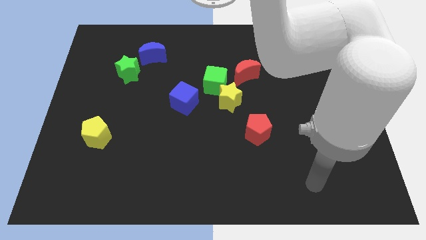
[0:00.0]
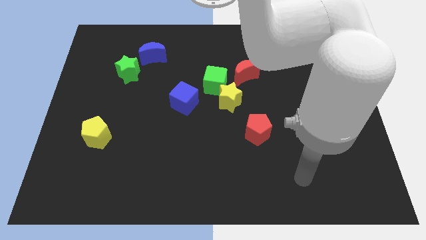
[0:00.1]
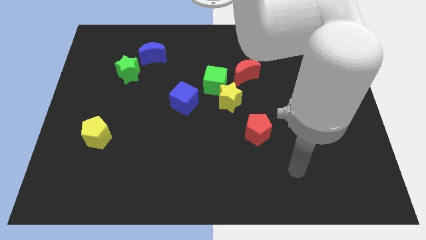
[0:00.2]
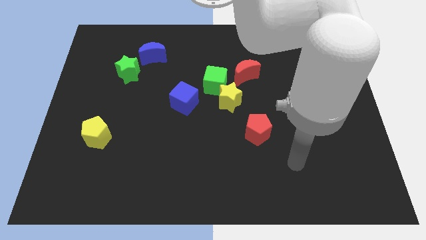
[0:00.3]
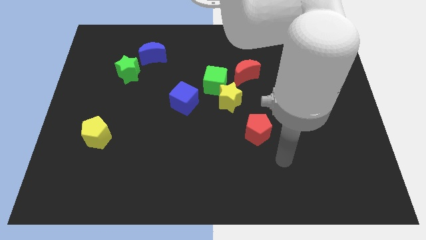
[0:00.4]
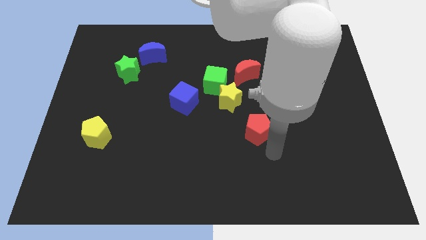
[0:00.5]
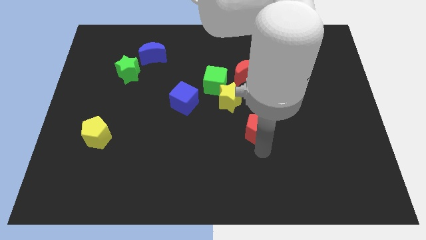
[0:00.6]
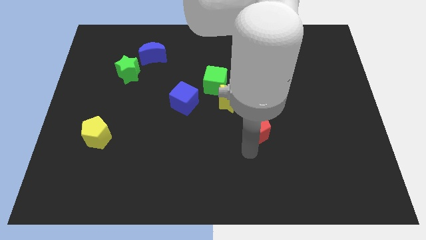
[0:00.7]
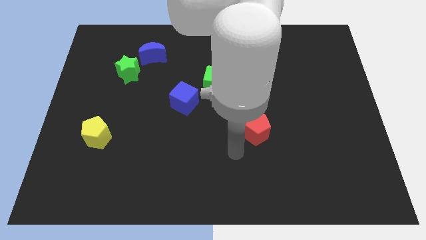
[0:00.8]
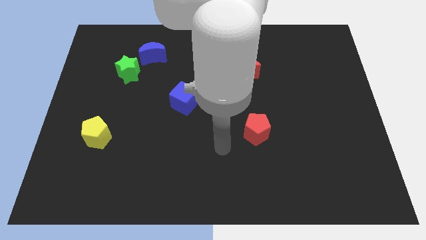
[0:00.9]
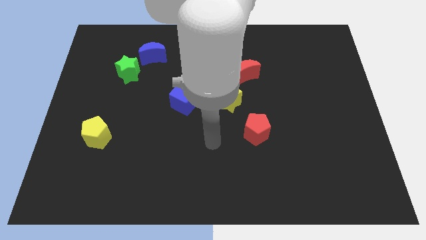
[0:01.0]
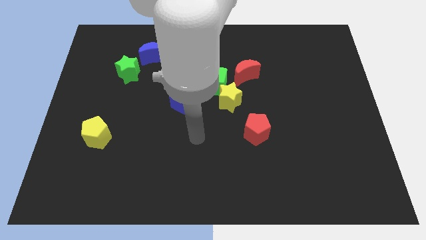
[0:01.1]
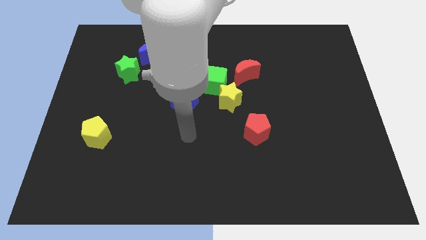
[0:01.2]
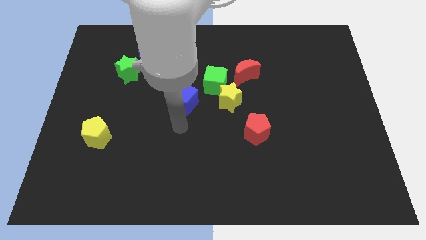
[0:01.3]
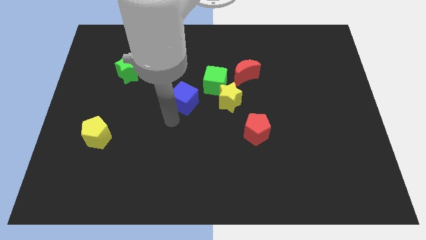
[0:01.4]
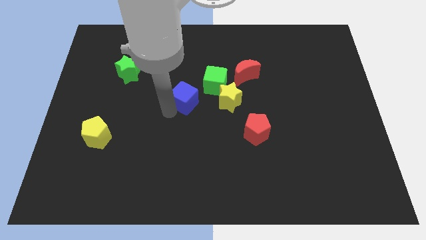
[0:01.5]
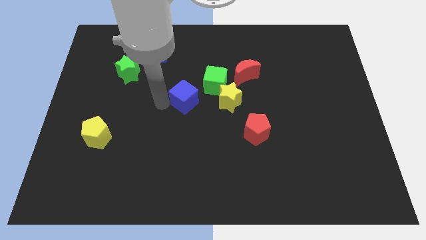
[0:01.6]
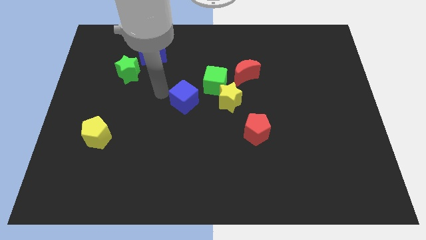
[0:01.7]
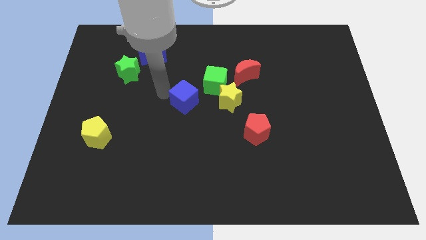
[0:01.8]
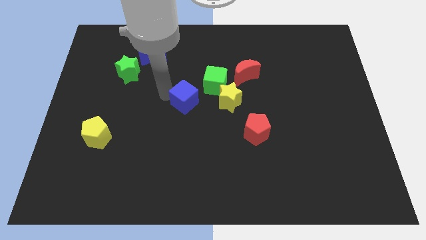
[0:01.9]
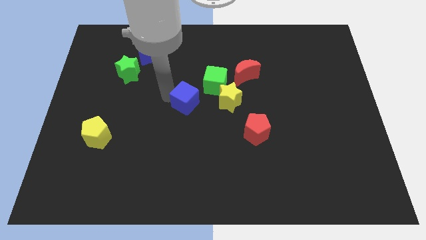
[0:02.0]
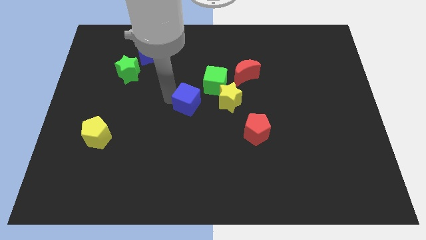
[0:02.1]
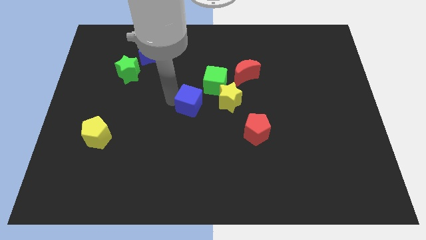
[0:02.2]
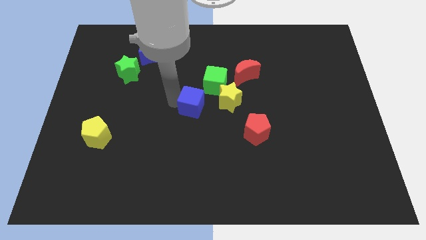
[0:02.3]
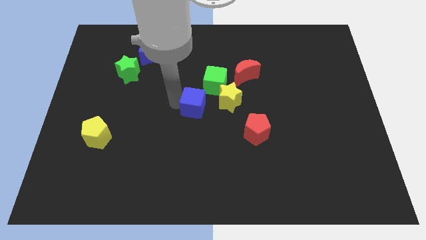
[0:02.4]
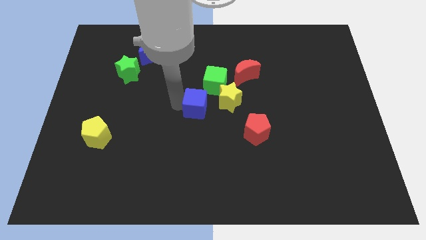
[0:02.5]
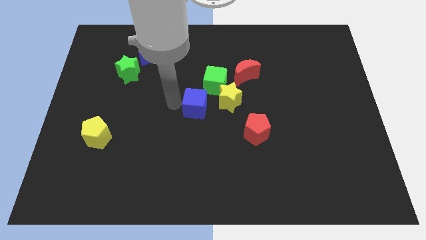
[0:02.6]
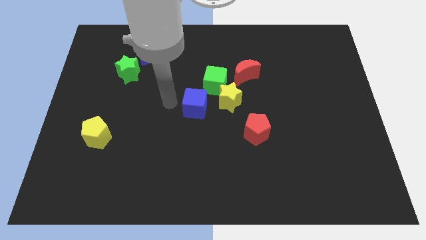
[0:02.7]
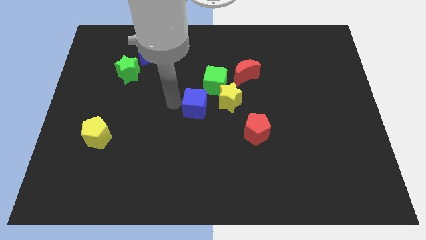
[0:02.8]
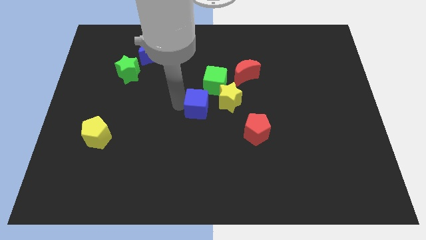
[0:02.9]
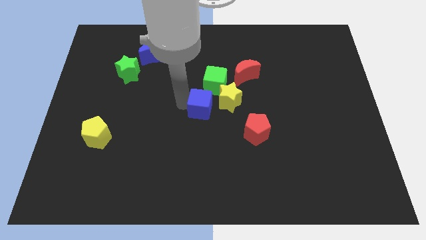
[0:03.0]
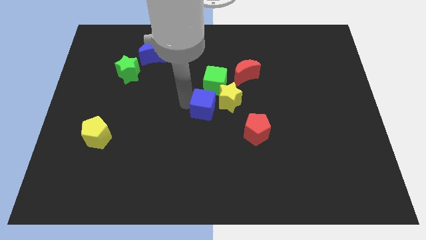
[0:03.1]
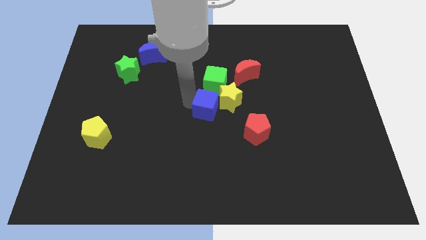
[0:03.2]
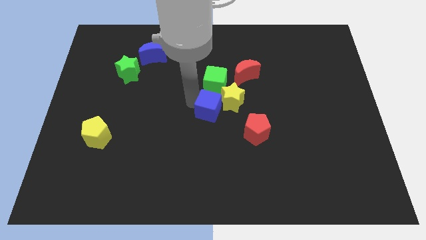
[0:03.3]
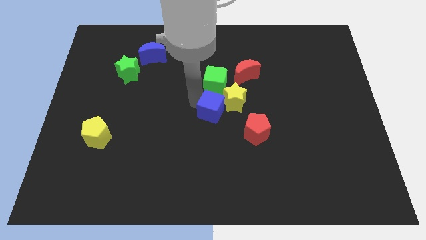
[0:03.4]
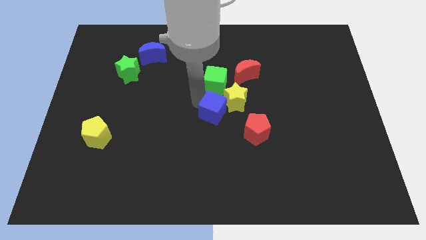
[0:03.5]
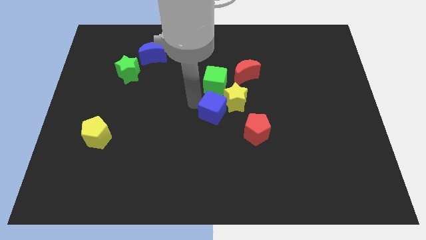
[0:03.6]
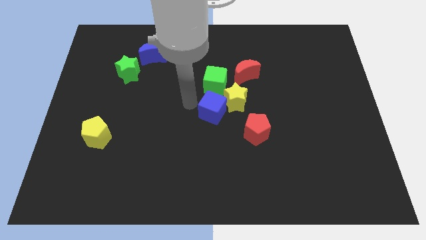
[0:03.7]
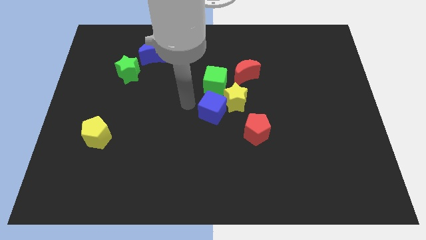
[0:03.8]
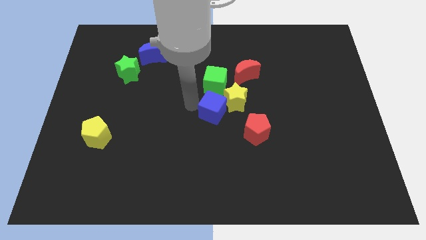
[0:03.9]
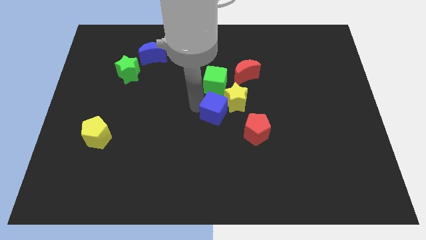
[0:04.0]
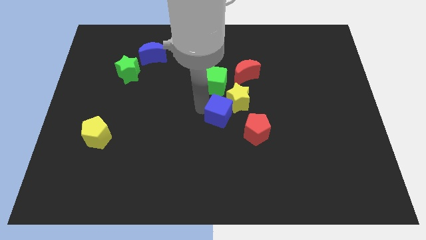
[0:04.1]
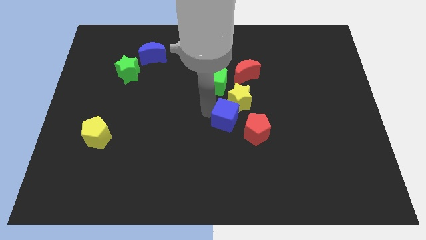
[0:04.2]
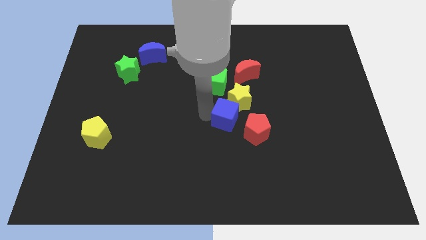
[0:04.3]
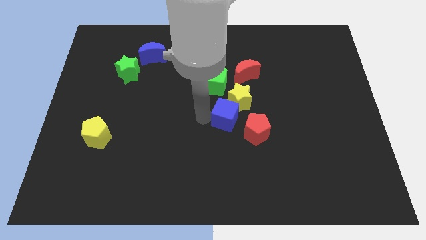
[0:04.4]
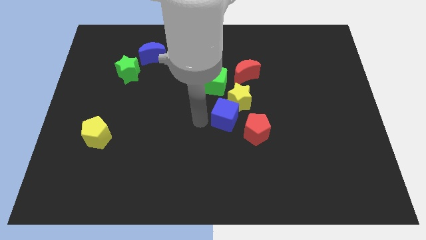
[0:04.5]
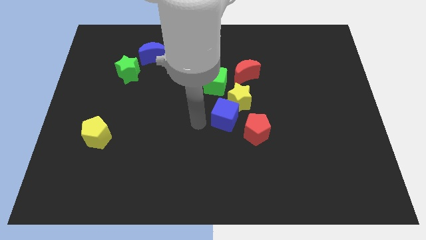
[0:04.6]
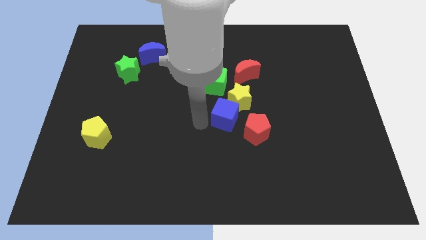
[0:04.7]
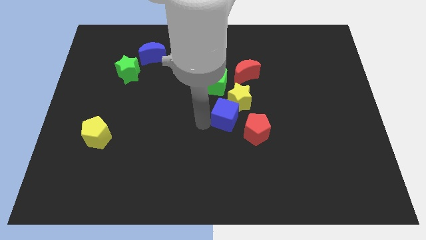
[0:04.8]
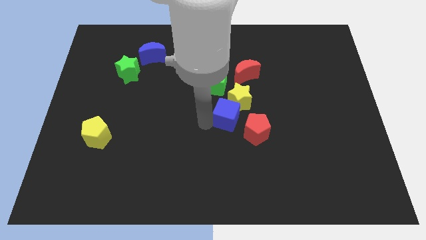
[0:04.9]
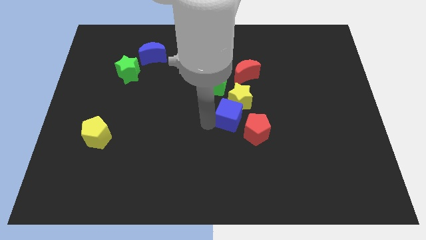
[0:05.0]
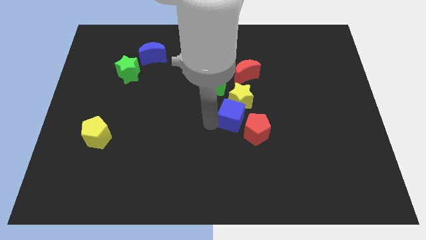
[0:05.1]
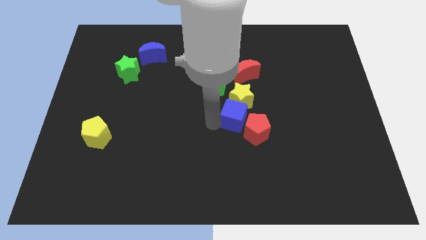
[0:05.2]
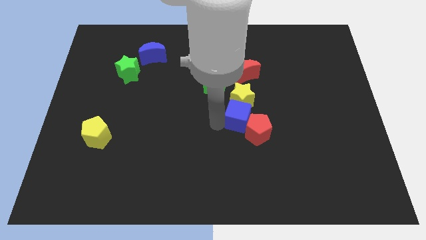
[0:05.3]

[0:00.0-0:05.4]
slide the blue cube to the top side of the red pentagon

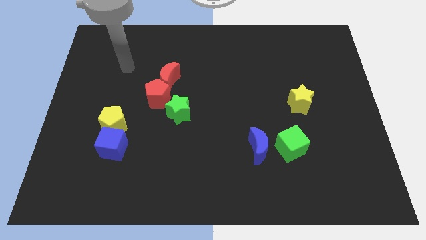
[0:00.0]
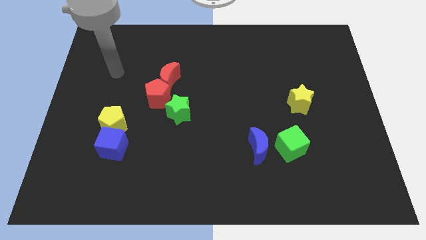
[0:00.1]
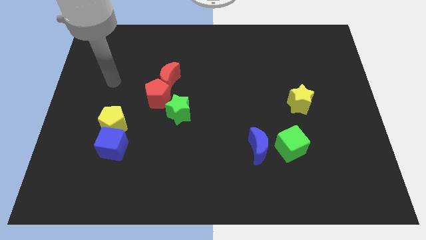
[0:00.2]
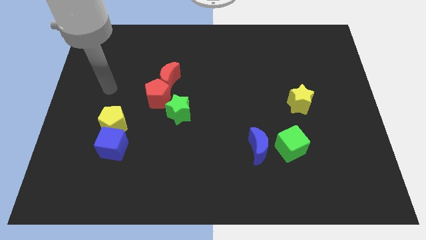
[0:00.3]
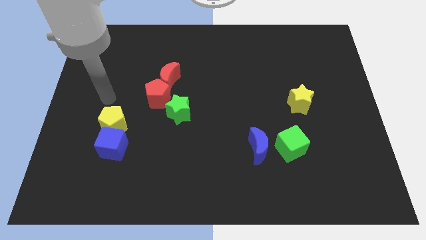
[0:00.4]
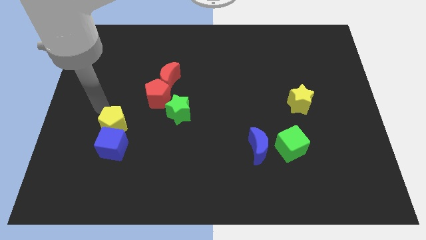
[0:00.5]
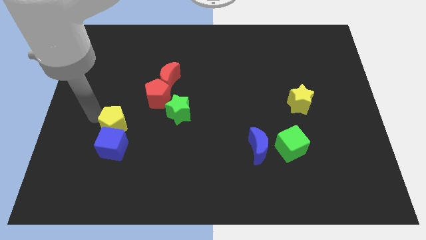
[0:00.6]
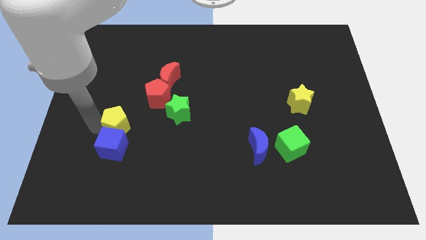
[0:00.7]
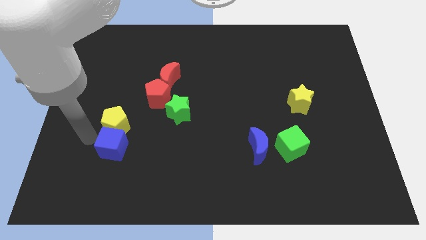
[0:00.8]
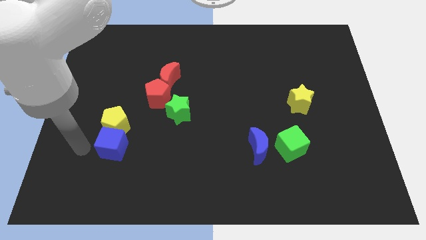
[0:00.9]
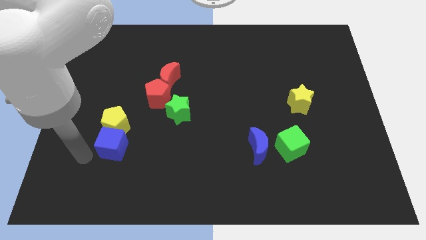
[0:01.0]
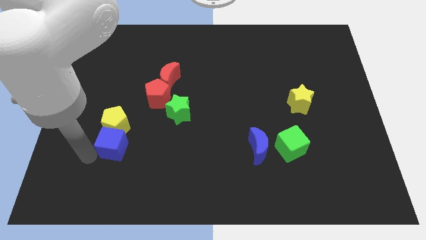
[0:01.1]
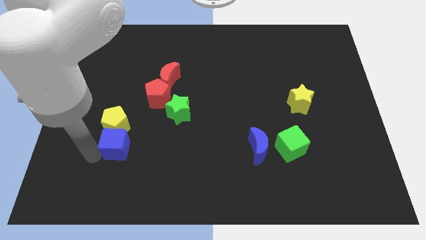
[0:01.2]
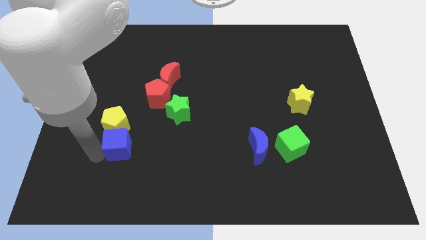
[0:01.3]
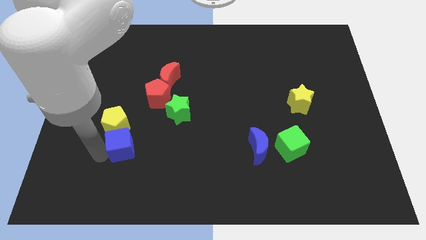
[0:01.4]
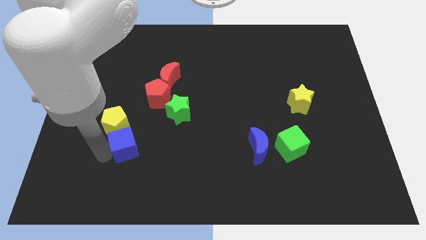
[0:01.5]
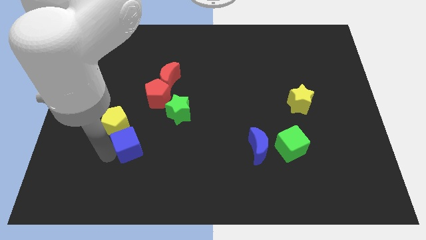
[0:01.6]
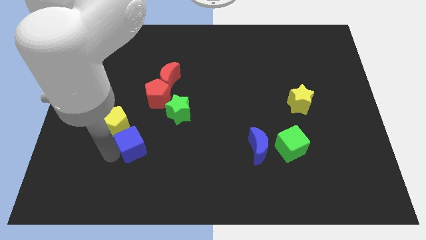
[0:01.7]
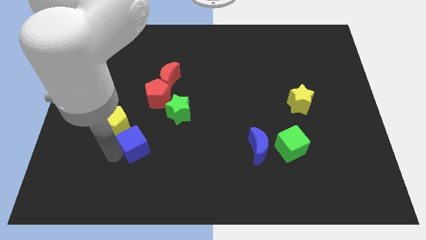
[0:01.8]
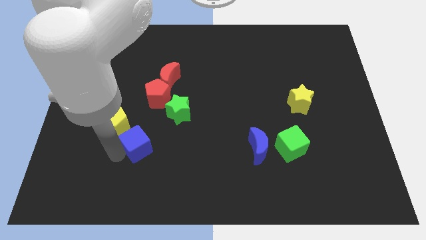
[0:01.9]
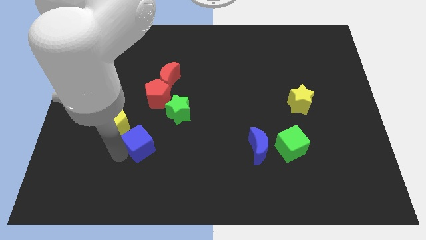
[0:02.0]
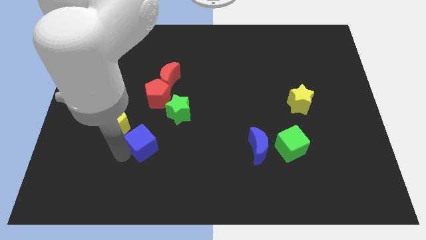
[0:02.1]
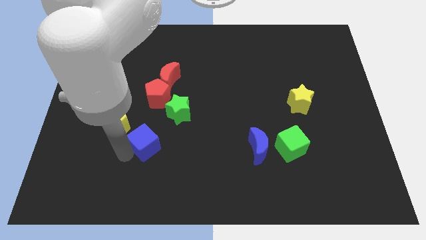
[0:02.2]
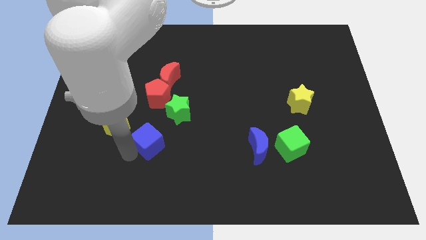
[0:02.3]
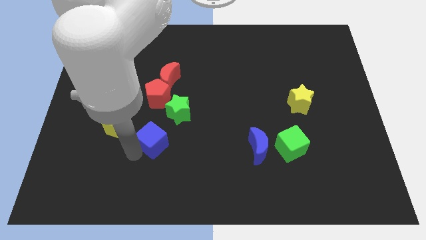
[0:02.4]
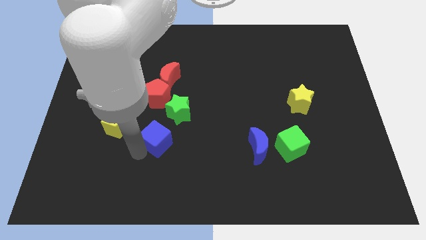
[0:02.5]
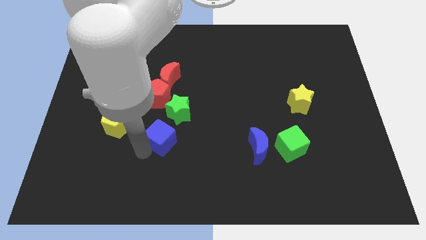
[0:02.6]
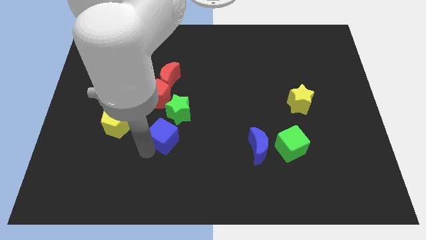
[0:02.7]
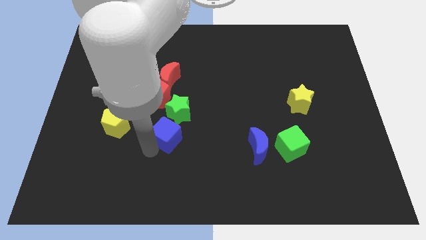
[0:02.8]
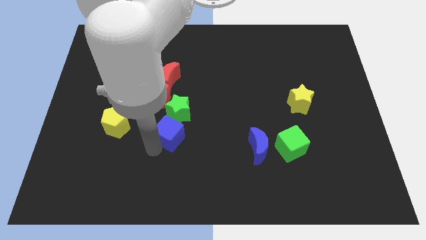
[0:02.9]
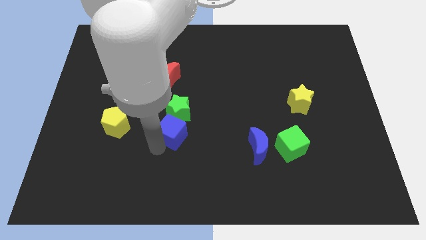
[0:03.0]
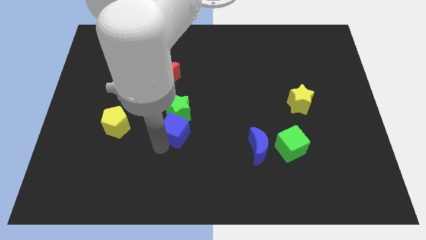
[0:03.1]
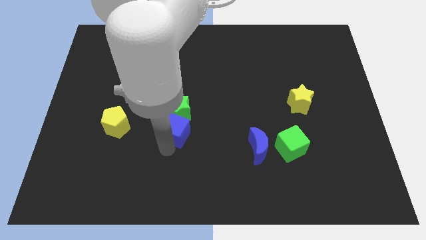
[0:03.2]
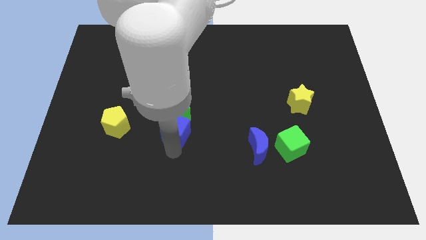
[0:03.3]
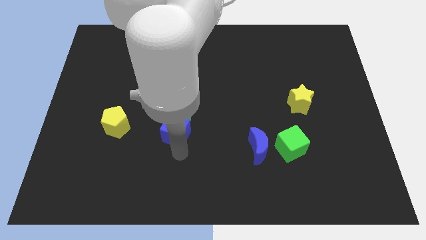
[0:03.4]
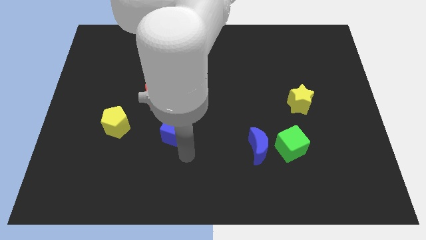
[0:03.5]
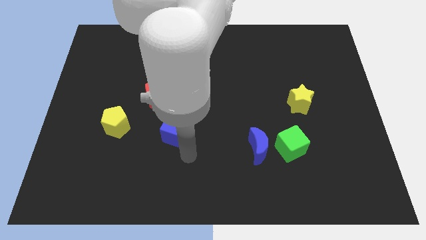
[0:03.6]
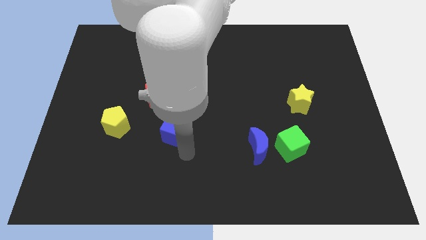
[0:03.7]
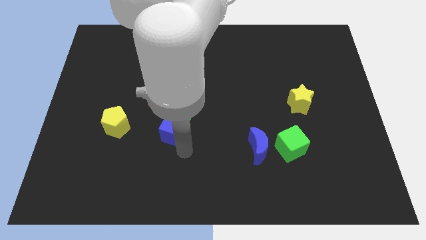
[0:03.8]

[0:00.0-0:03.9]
move the blue cube below the red moon
